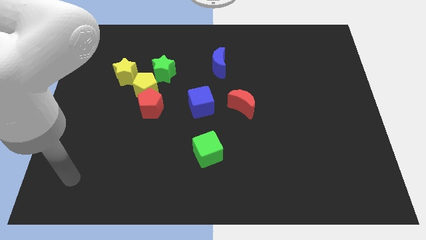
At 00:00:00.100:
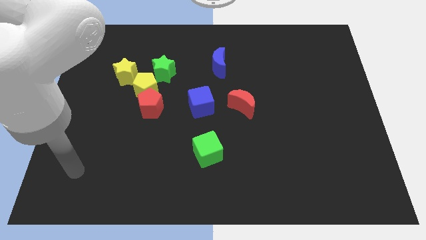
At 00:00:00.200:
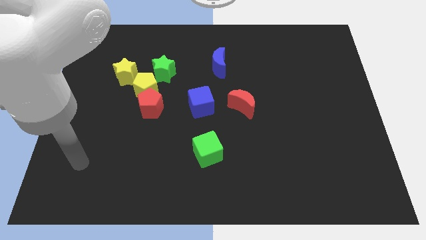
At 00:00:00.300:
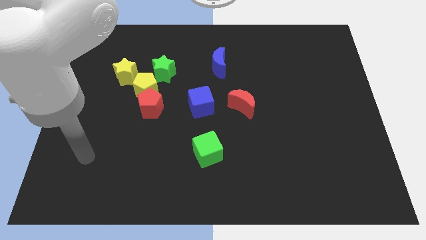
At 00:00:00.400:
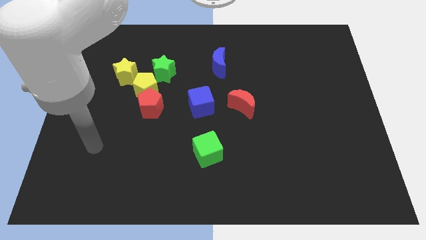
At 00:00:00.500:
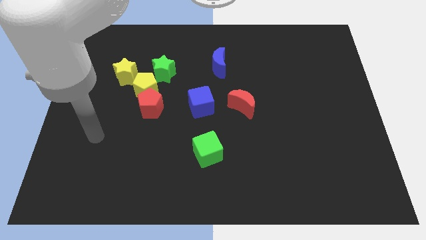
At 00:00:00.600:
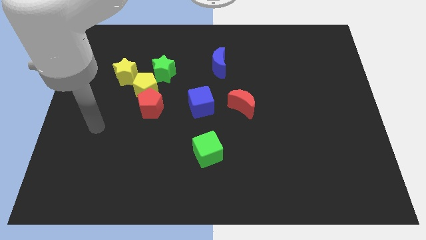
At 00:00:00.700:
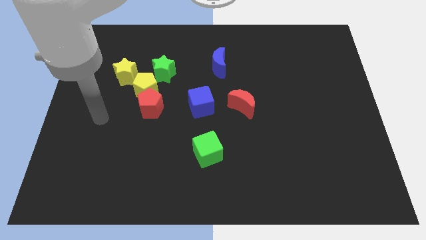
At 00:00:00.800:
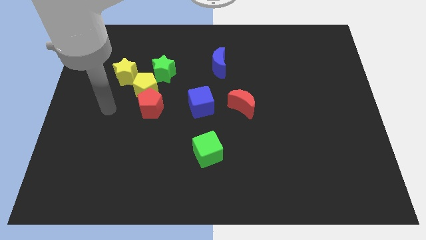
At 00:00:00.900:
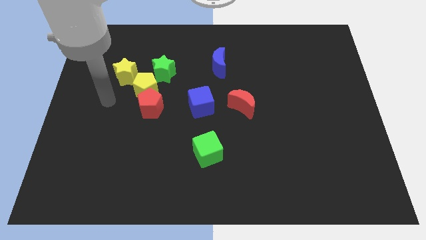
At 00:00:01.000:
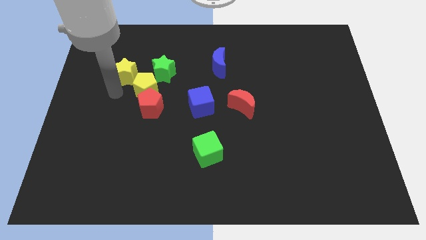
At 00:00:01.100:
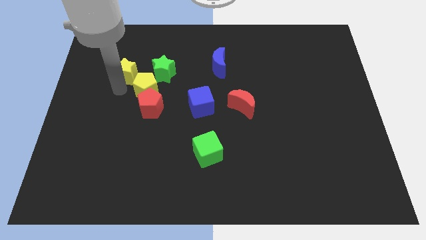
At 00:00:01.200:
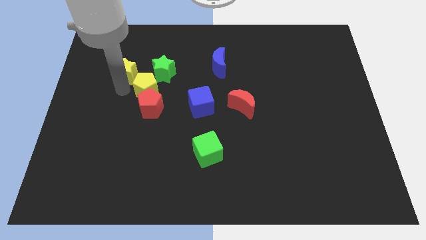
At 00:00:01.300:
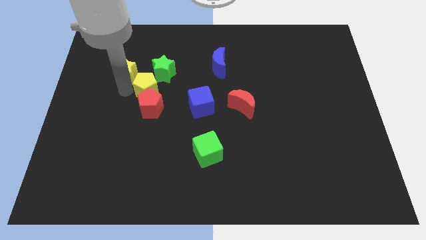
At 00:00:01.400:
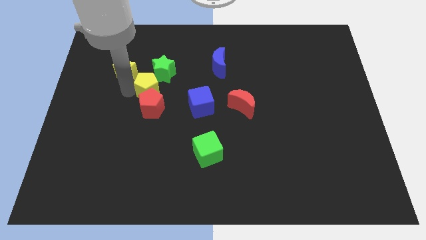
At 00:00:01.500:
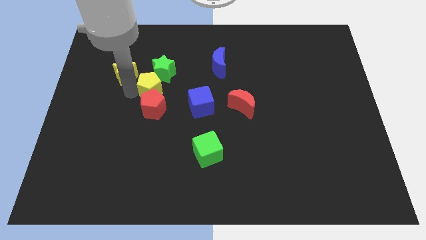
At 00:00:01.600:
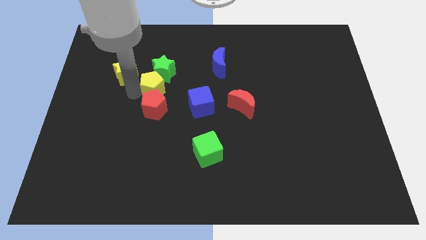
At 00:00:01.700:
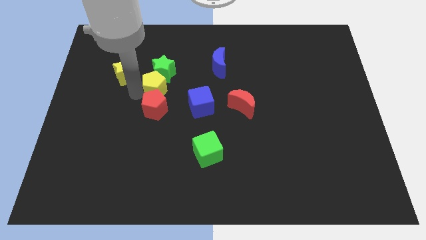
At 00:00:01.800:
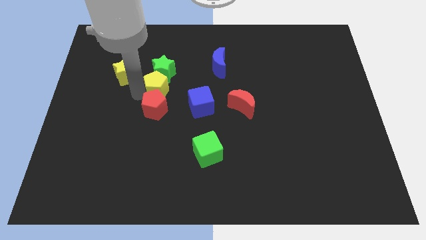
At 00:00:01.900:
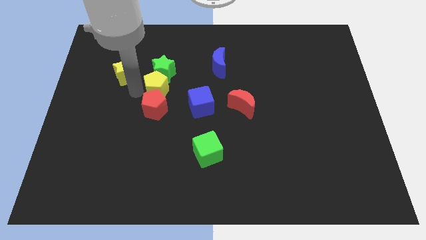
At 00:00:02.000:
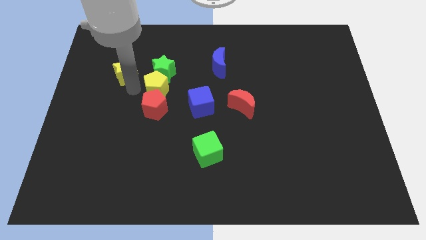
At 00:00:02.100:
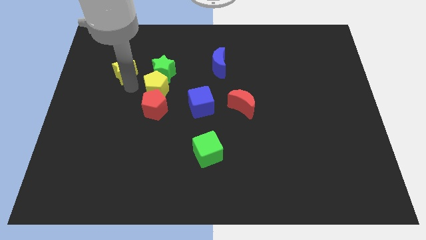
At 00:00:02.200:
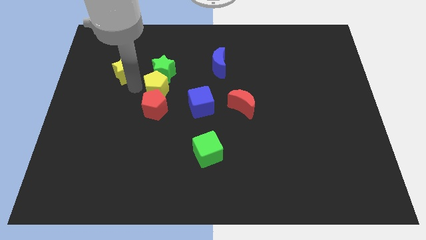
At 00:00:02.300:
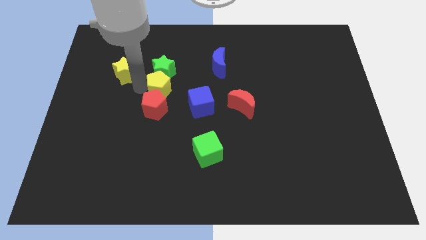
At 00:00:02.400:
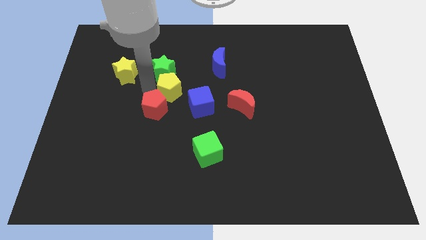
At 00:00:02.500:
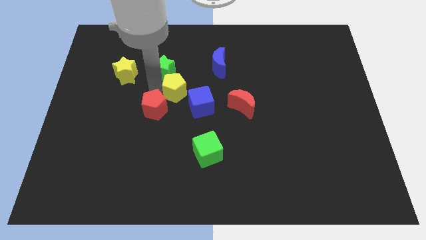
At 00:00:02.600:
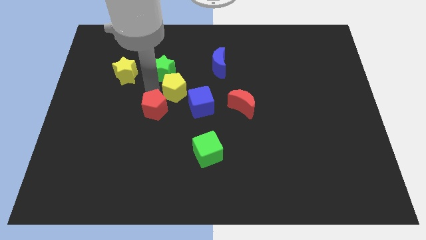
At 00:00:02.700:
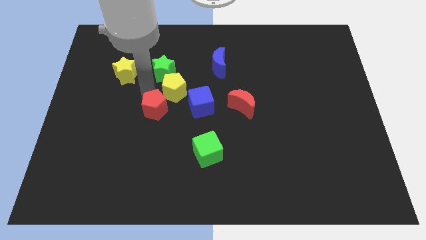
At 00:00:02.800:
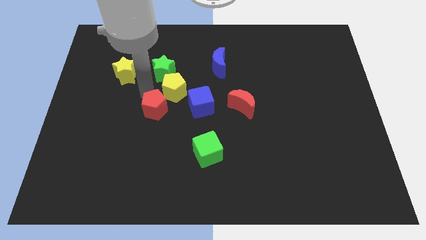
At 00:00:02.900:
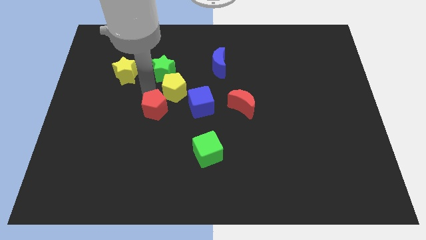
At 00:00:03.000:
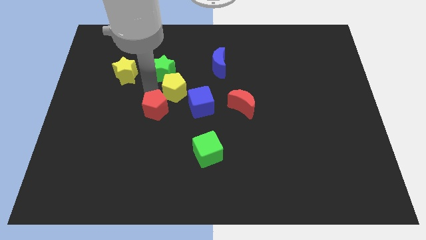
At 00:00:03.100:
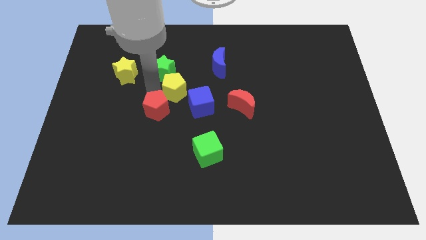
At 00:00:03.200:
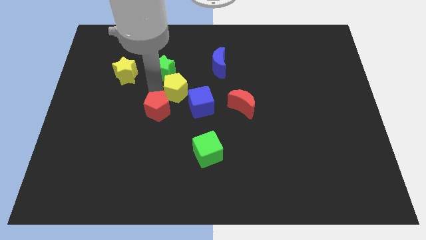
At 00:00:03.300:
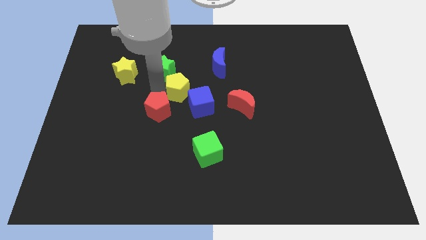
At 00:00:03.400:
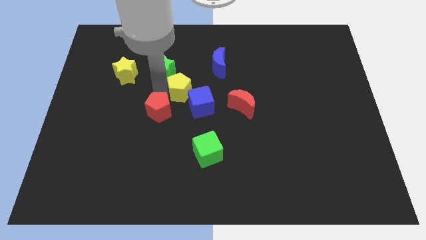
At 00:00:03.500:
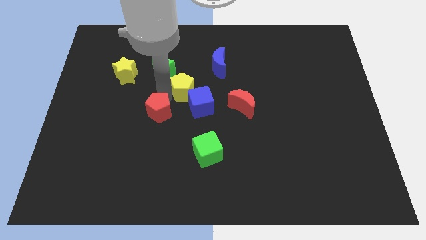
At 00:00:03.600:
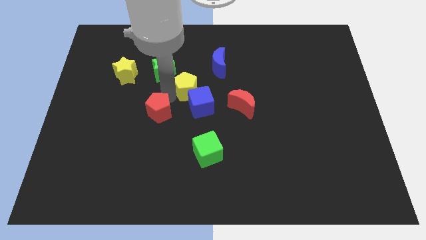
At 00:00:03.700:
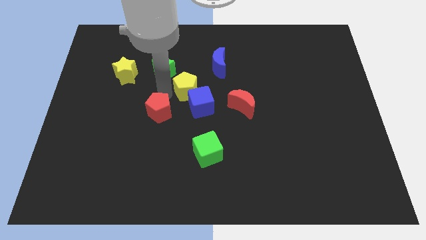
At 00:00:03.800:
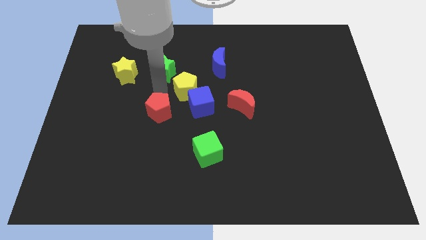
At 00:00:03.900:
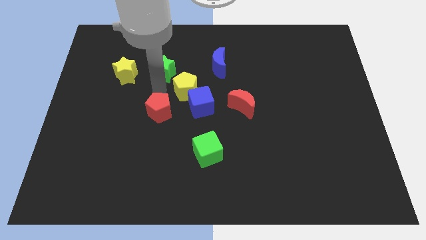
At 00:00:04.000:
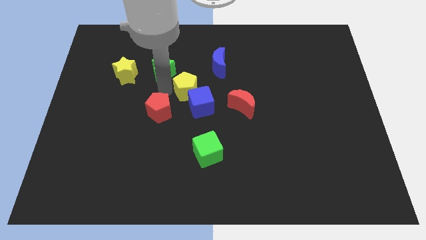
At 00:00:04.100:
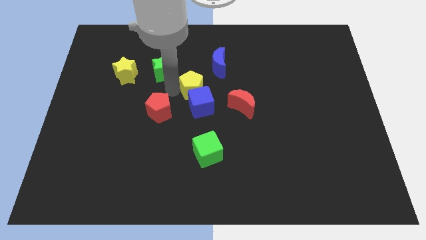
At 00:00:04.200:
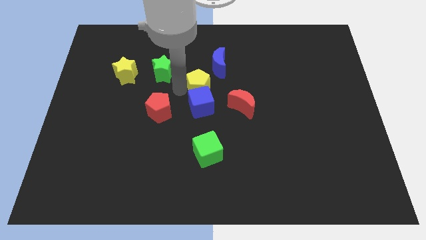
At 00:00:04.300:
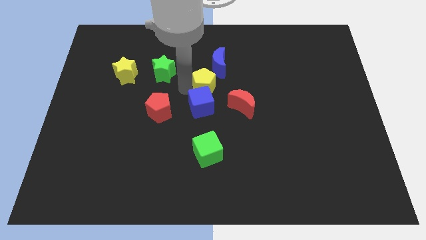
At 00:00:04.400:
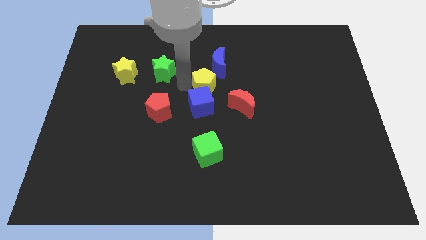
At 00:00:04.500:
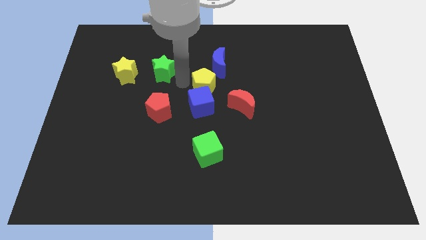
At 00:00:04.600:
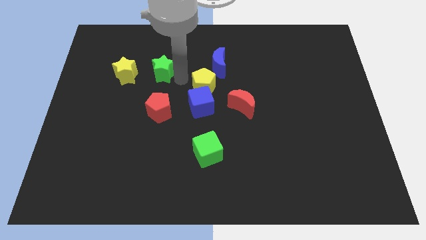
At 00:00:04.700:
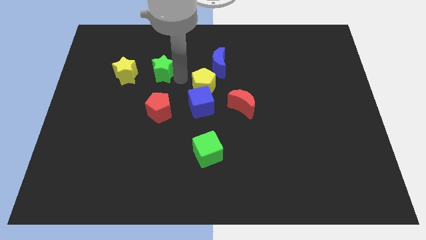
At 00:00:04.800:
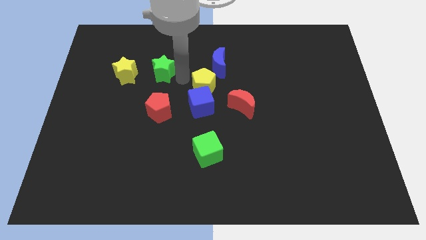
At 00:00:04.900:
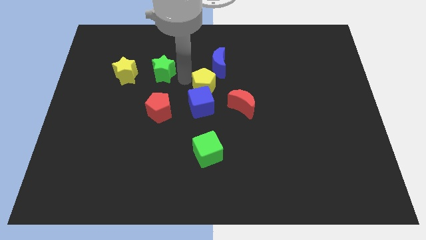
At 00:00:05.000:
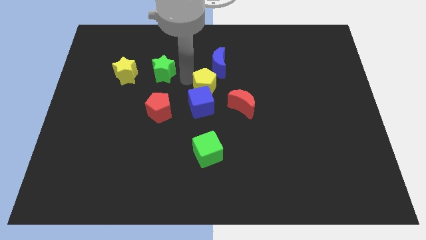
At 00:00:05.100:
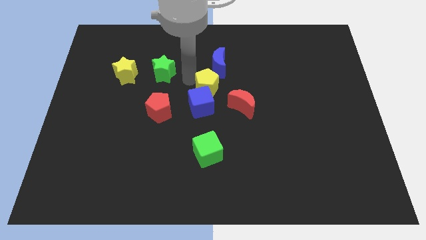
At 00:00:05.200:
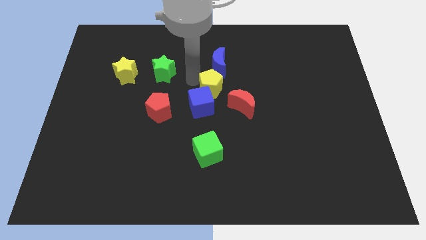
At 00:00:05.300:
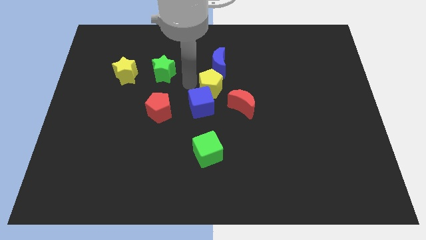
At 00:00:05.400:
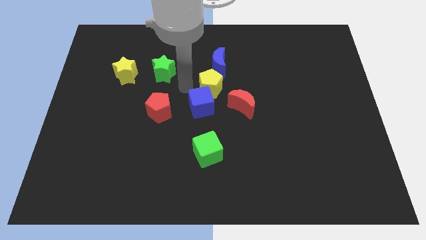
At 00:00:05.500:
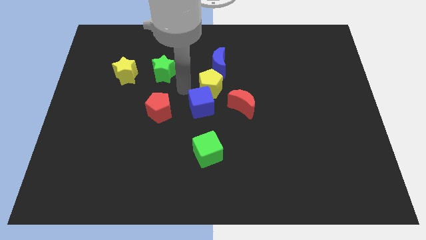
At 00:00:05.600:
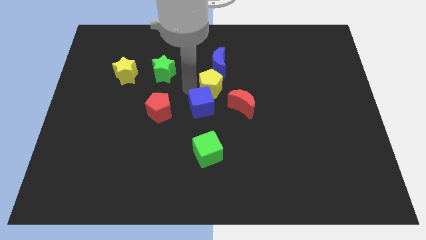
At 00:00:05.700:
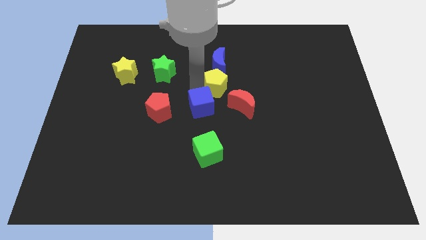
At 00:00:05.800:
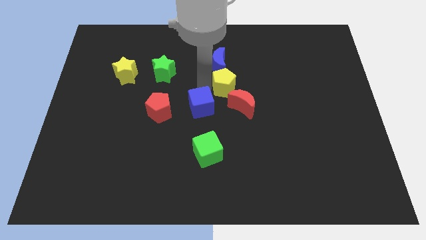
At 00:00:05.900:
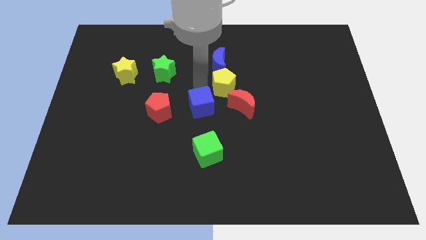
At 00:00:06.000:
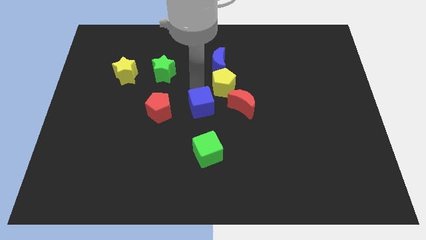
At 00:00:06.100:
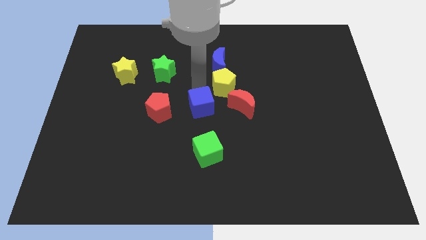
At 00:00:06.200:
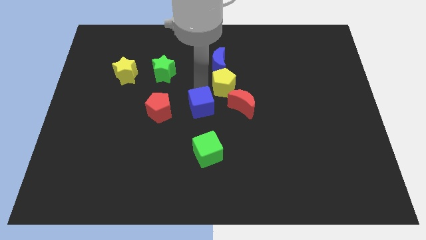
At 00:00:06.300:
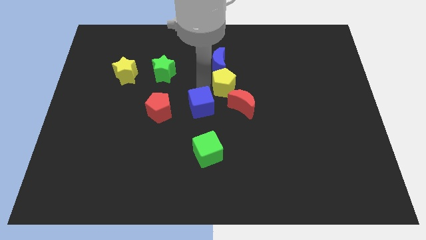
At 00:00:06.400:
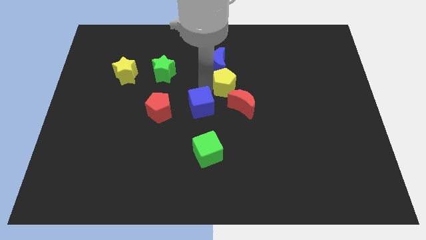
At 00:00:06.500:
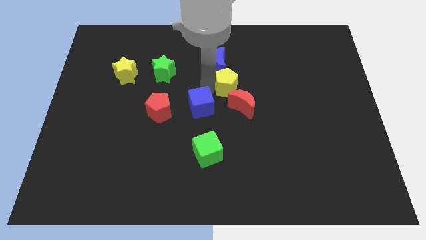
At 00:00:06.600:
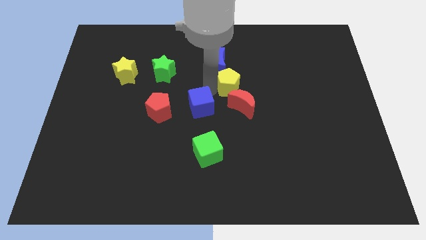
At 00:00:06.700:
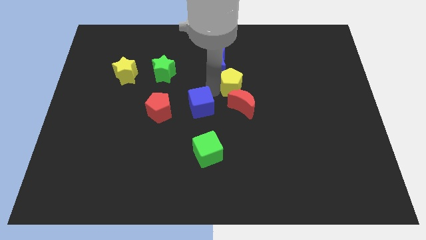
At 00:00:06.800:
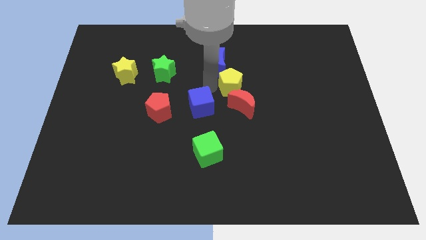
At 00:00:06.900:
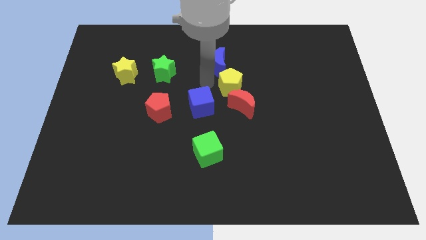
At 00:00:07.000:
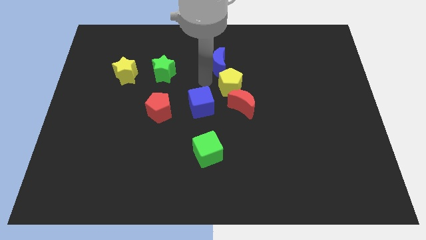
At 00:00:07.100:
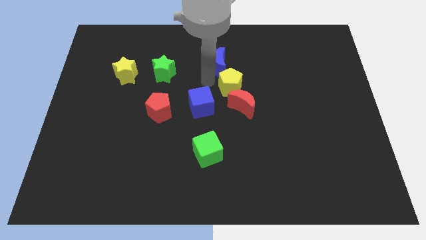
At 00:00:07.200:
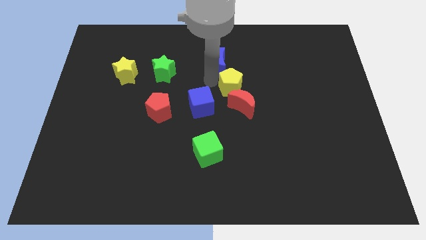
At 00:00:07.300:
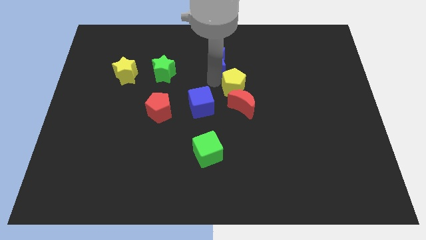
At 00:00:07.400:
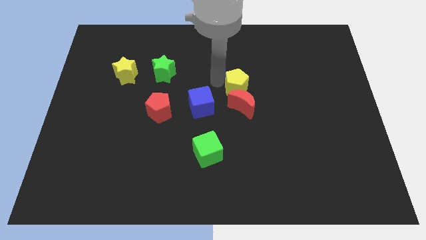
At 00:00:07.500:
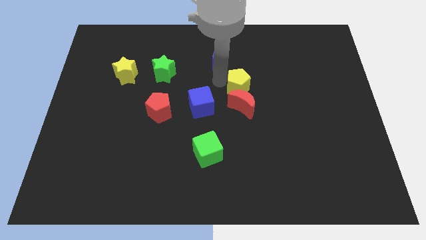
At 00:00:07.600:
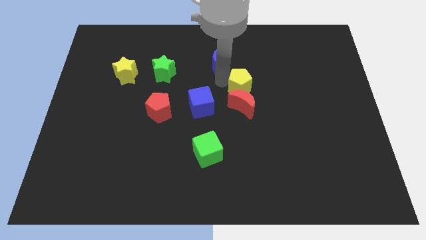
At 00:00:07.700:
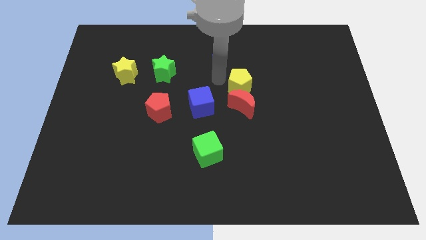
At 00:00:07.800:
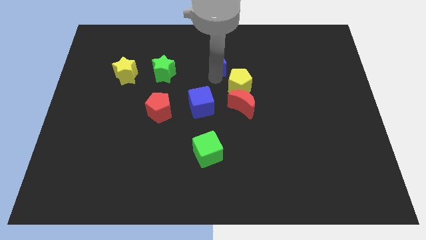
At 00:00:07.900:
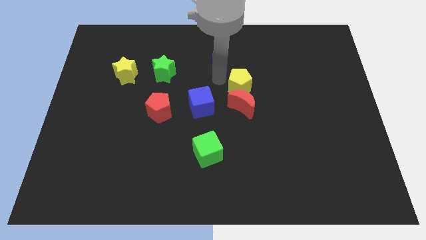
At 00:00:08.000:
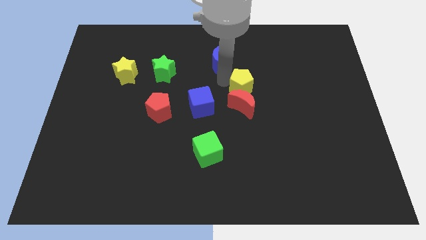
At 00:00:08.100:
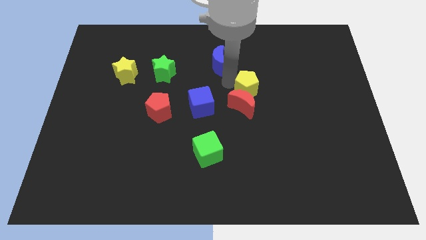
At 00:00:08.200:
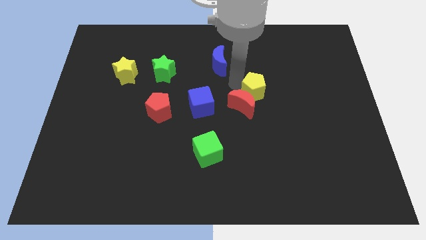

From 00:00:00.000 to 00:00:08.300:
slide the yellow pentagon right of the blue cube
